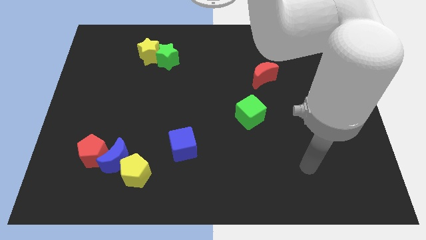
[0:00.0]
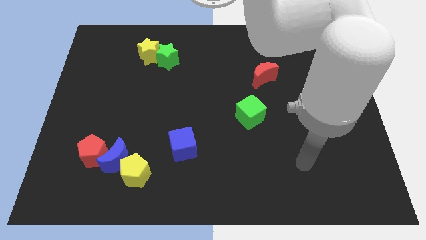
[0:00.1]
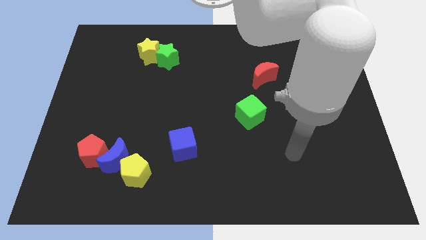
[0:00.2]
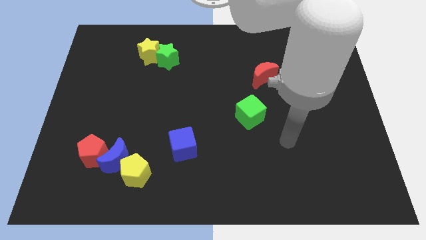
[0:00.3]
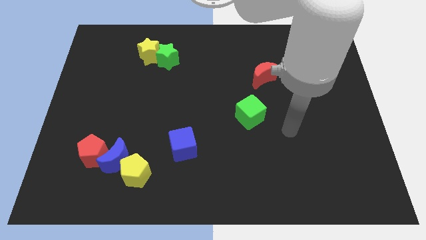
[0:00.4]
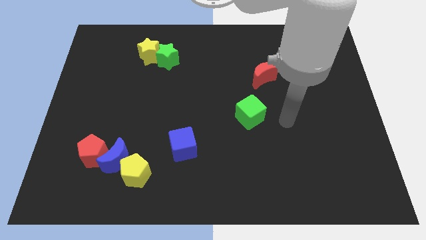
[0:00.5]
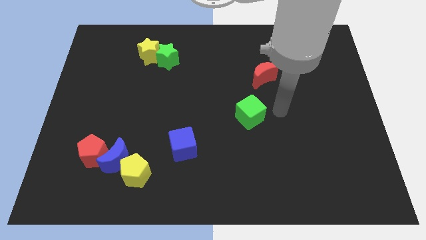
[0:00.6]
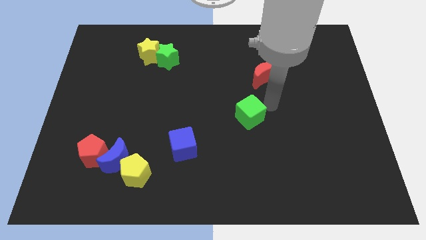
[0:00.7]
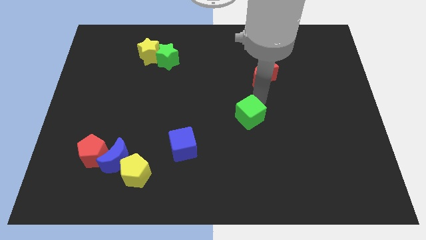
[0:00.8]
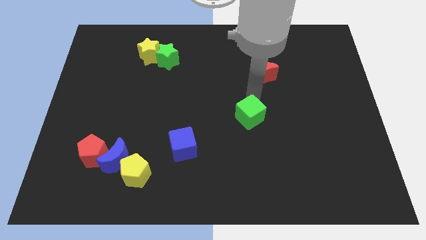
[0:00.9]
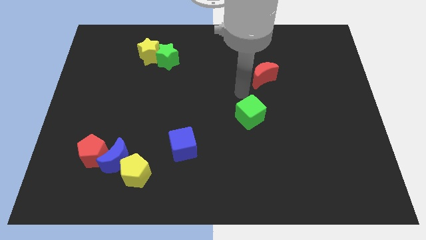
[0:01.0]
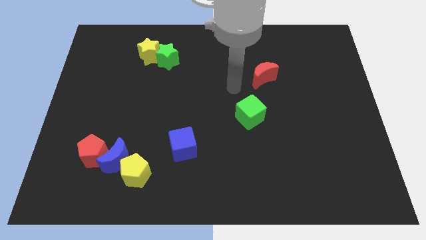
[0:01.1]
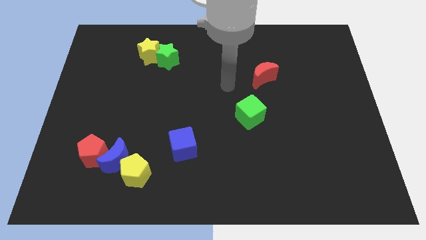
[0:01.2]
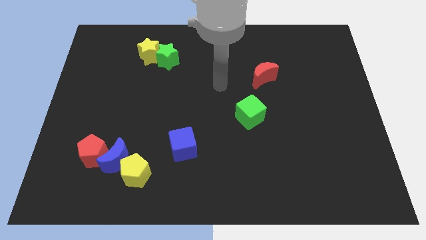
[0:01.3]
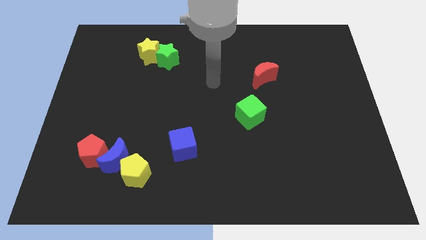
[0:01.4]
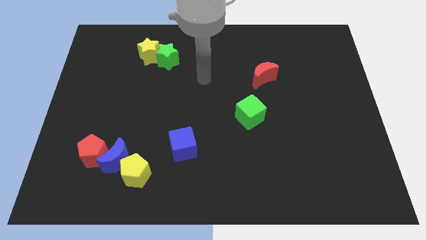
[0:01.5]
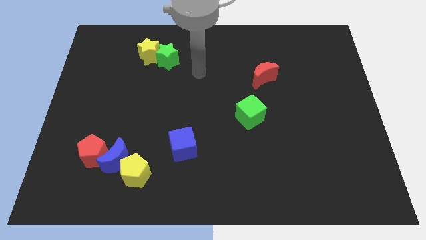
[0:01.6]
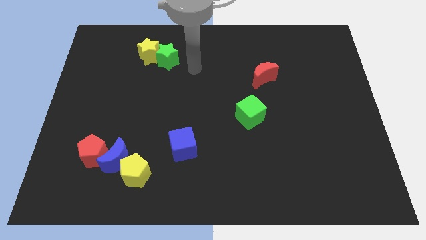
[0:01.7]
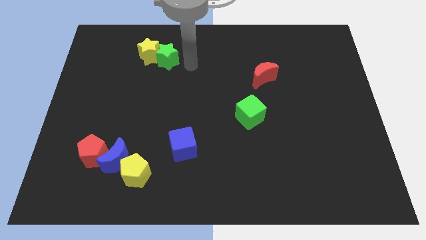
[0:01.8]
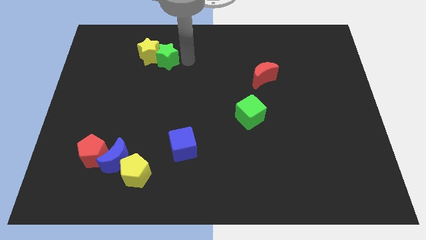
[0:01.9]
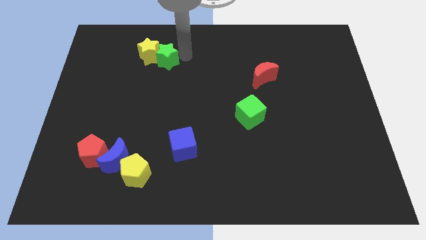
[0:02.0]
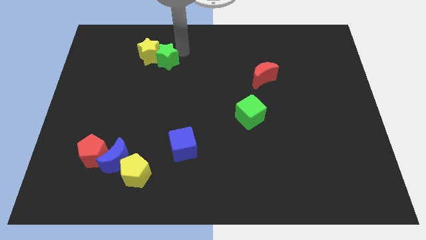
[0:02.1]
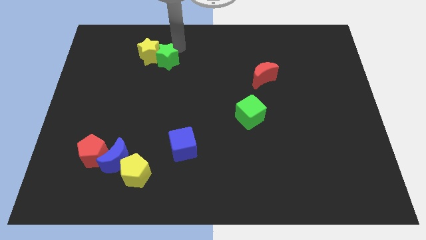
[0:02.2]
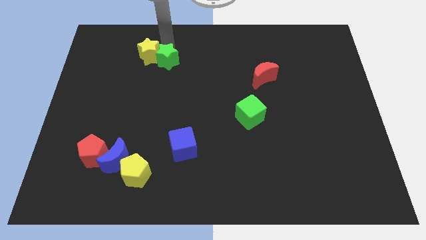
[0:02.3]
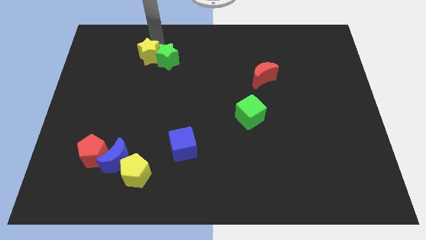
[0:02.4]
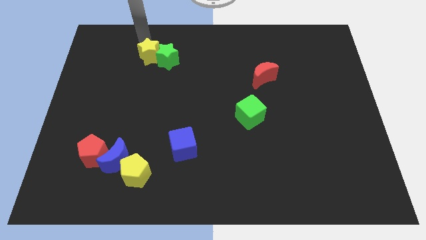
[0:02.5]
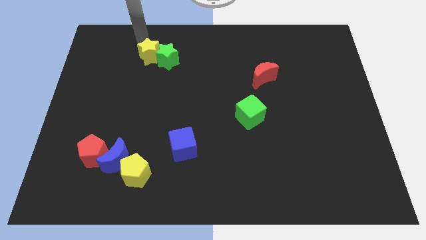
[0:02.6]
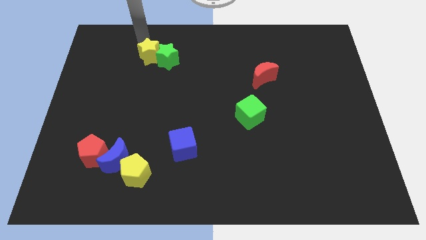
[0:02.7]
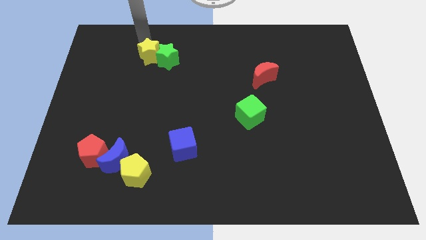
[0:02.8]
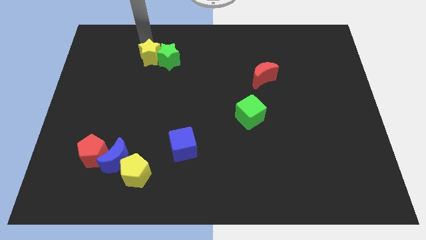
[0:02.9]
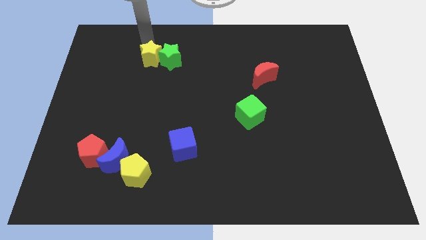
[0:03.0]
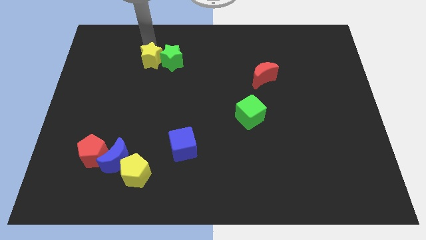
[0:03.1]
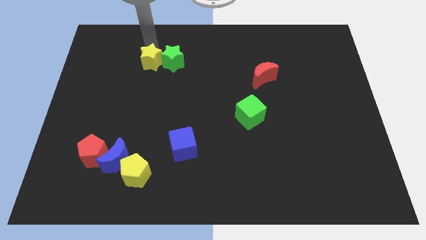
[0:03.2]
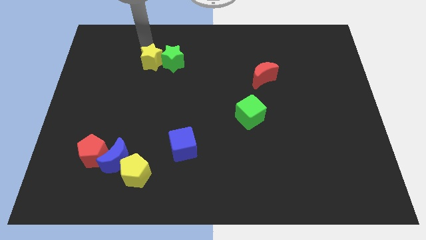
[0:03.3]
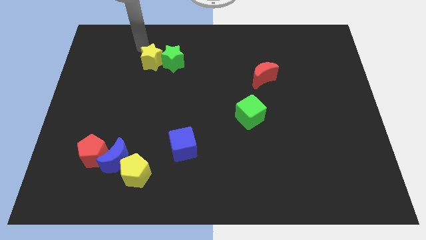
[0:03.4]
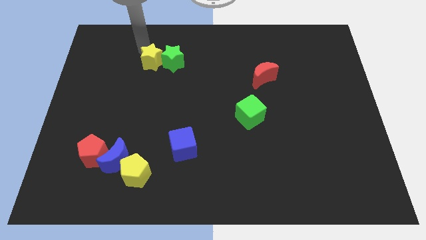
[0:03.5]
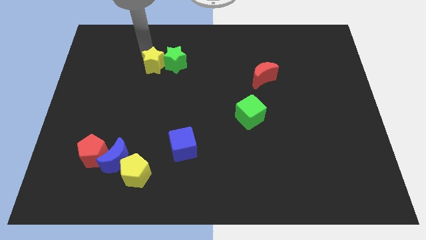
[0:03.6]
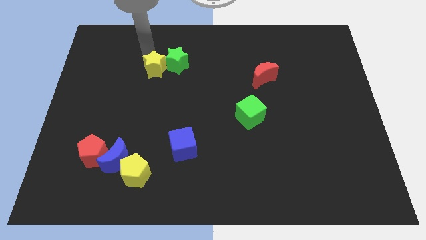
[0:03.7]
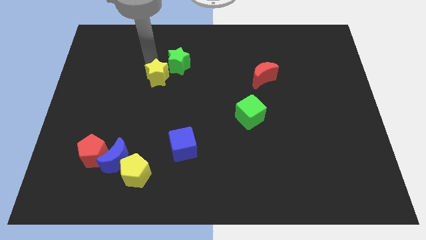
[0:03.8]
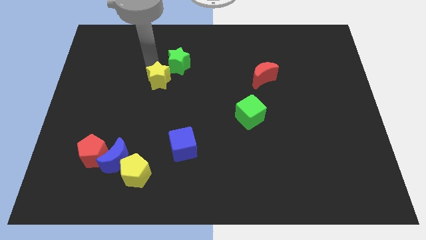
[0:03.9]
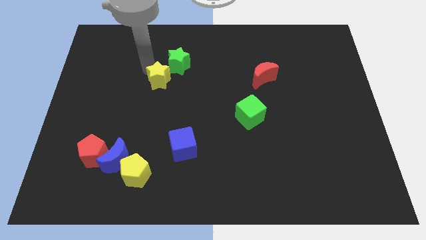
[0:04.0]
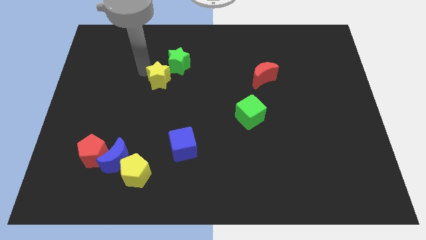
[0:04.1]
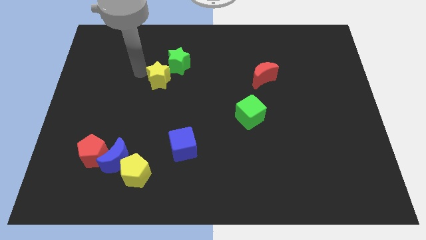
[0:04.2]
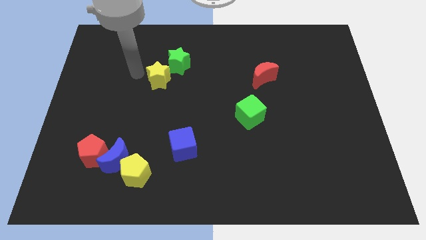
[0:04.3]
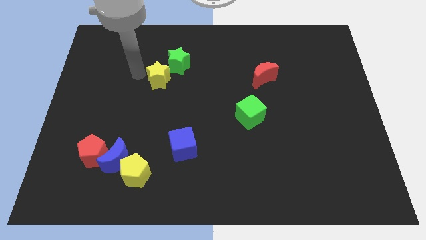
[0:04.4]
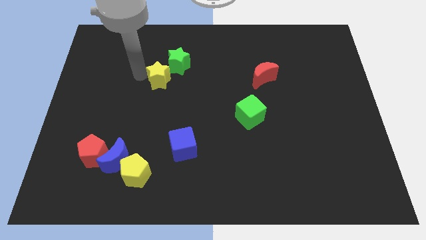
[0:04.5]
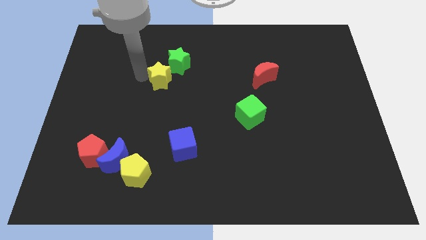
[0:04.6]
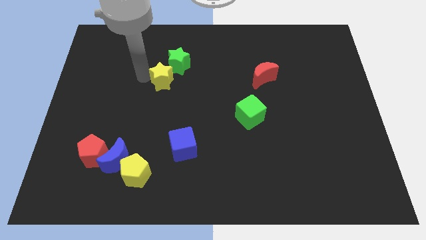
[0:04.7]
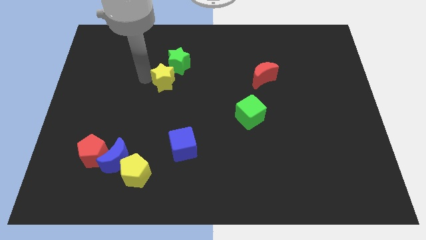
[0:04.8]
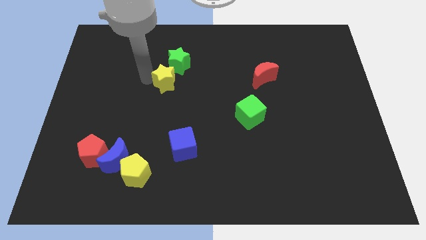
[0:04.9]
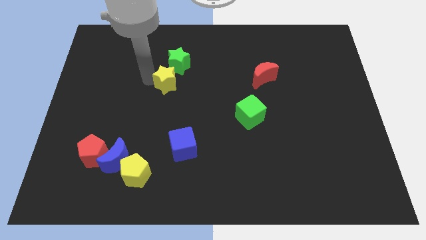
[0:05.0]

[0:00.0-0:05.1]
put the yellow star to the center of the board

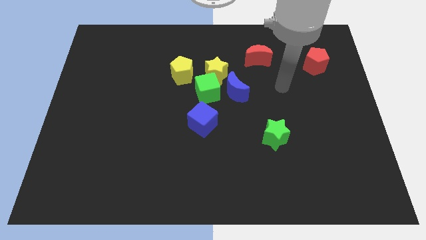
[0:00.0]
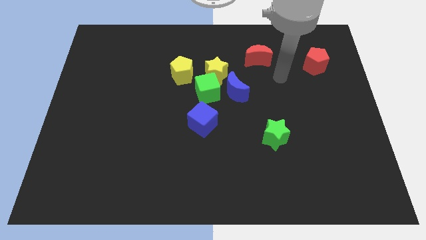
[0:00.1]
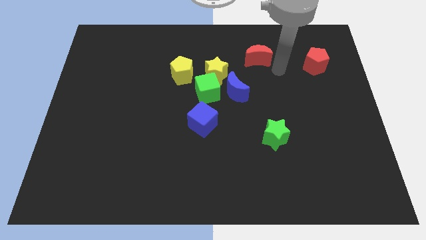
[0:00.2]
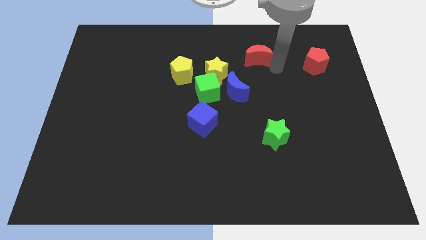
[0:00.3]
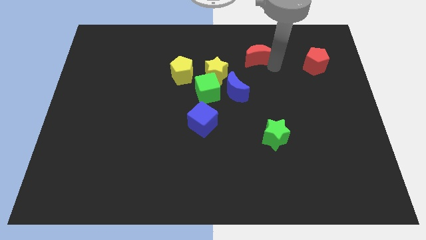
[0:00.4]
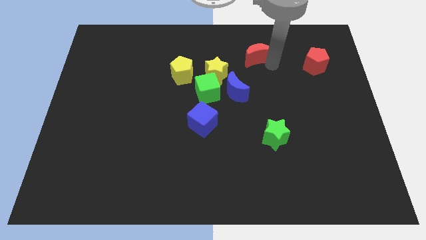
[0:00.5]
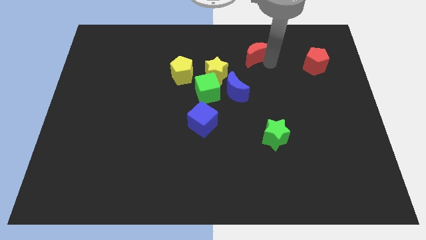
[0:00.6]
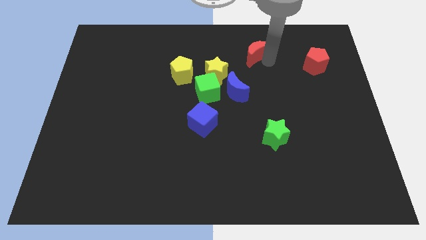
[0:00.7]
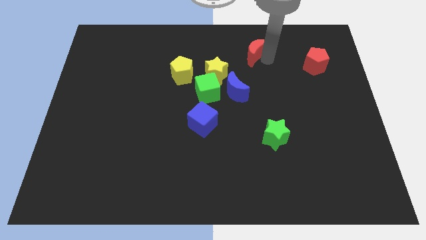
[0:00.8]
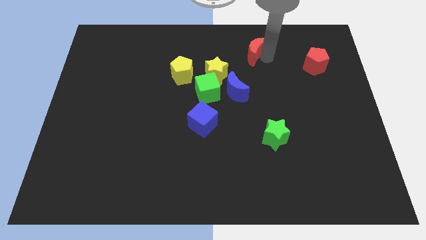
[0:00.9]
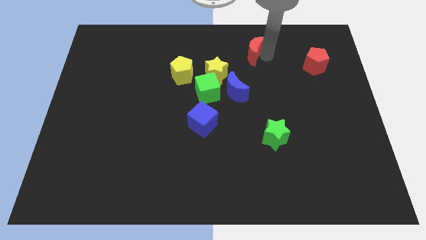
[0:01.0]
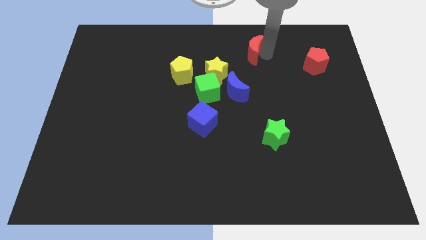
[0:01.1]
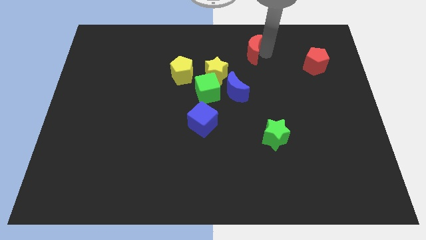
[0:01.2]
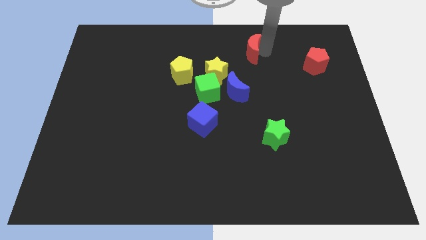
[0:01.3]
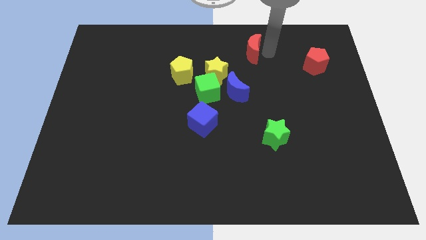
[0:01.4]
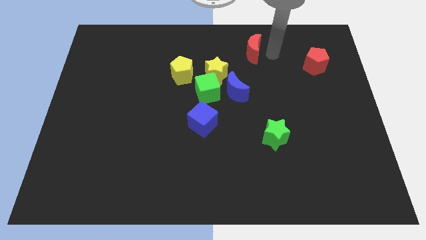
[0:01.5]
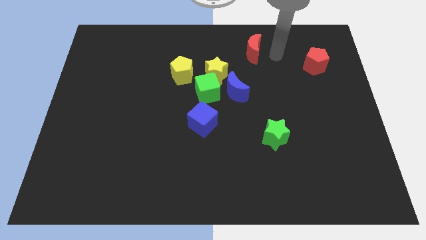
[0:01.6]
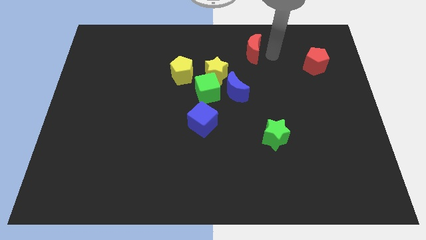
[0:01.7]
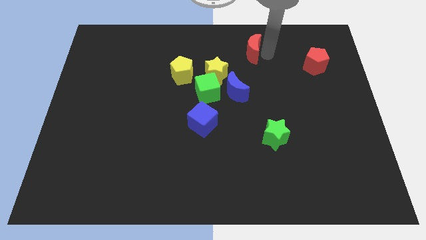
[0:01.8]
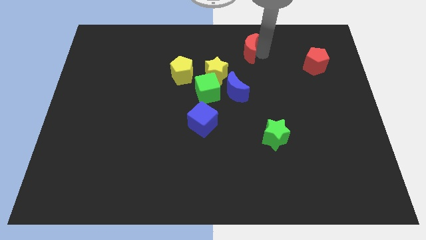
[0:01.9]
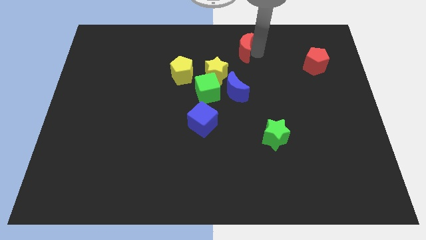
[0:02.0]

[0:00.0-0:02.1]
slide the red moon to the towards your base
